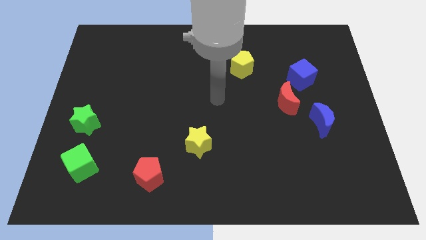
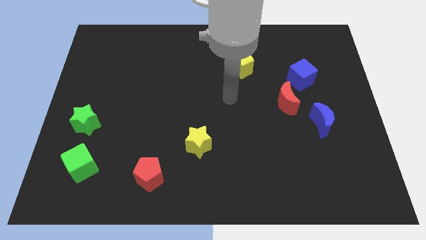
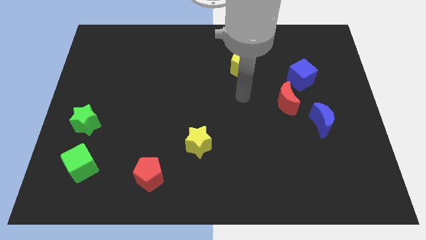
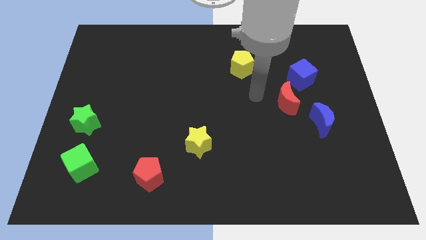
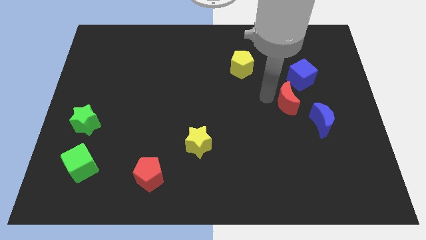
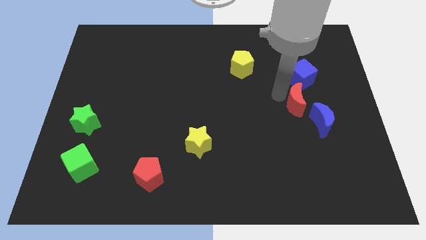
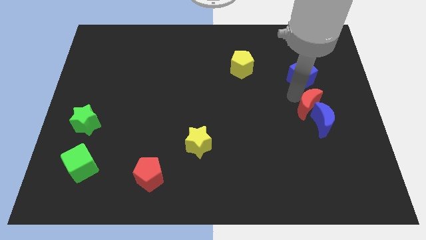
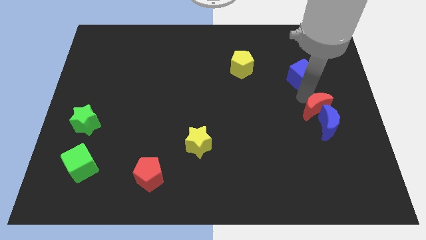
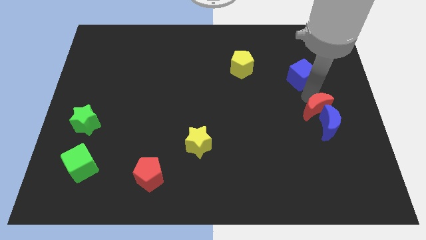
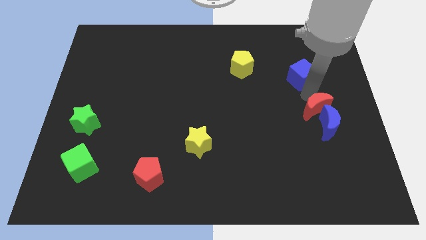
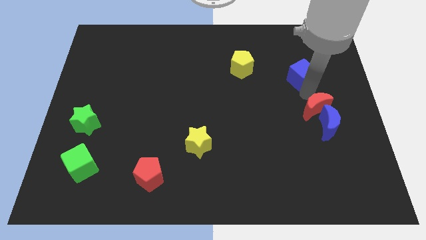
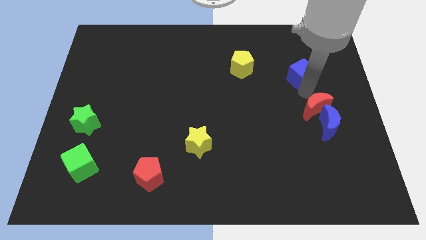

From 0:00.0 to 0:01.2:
move the blue cube away from the red moon

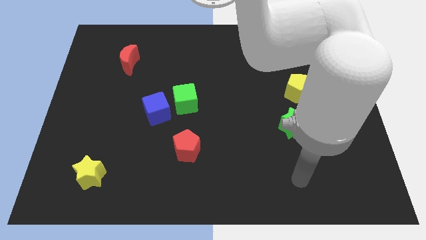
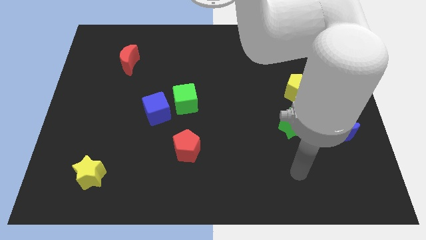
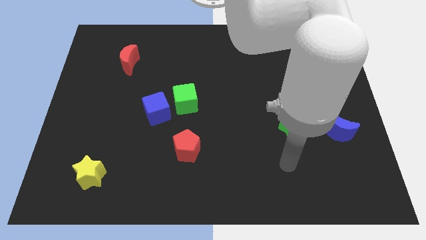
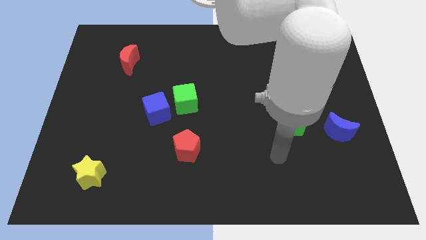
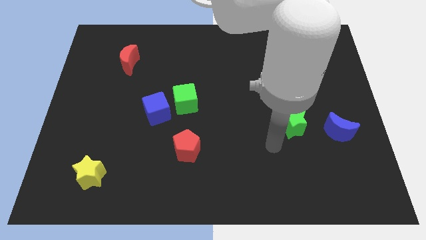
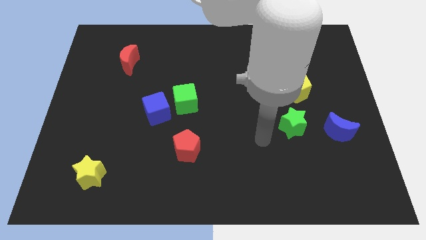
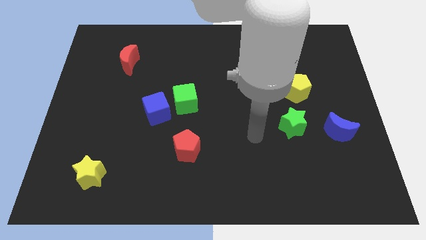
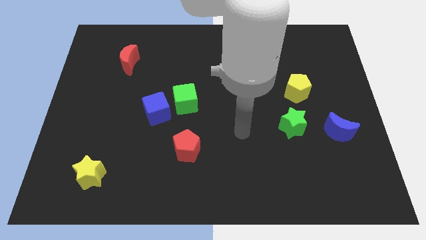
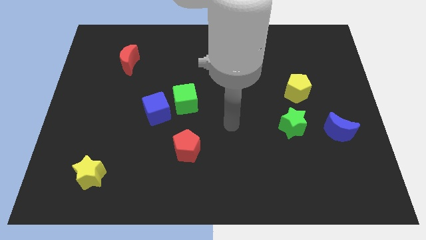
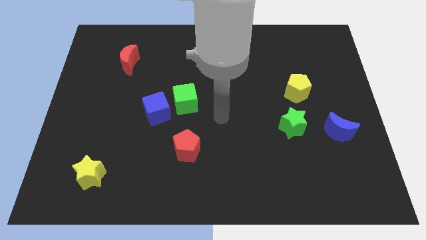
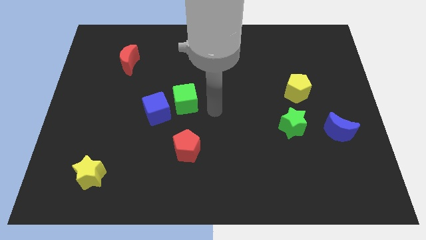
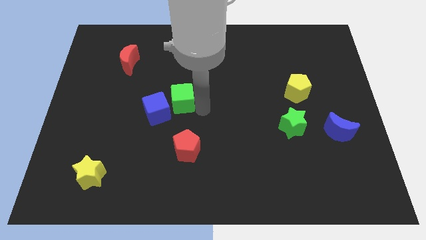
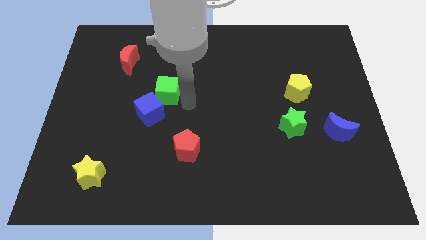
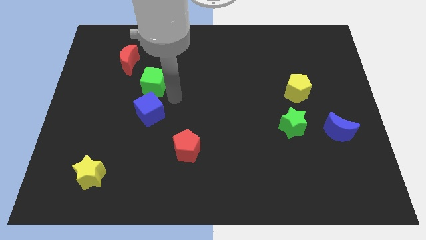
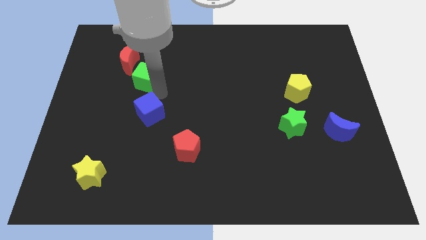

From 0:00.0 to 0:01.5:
pull the blue cube apart from the green cube

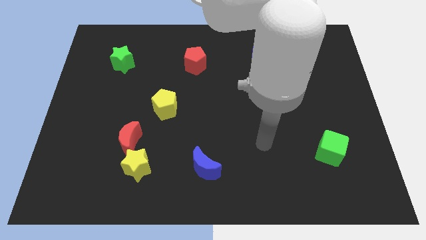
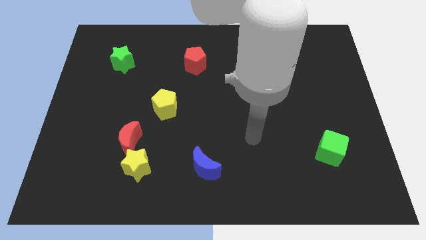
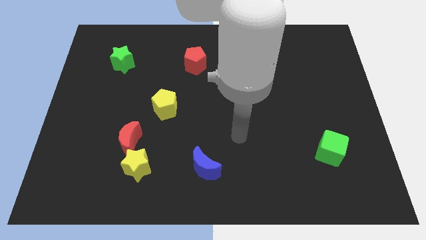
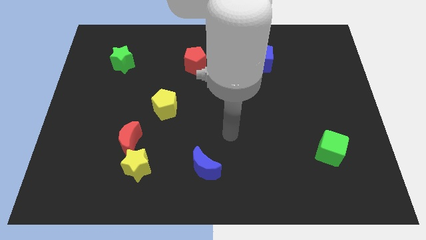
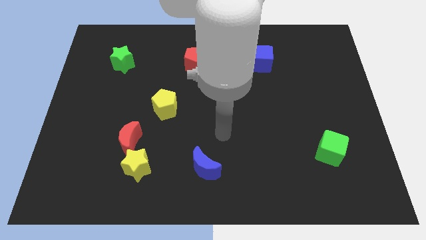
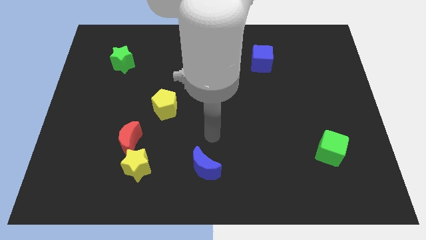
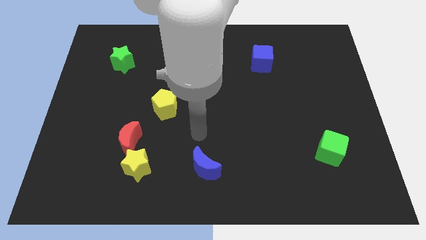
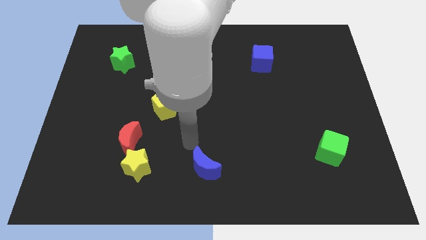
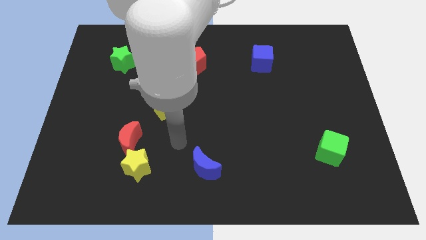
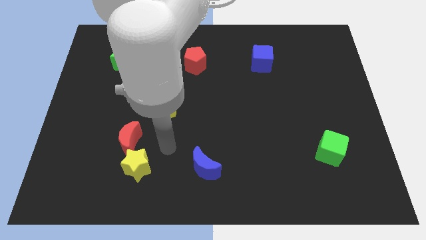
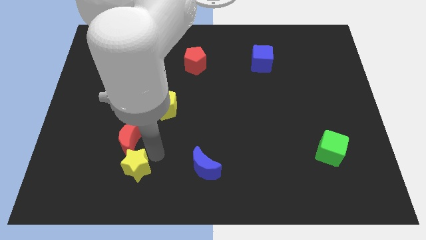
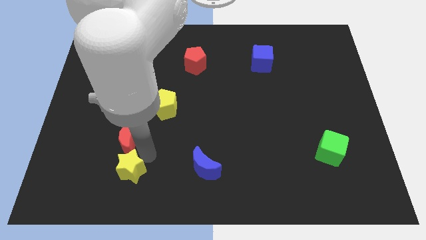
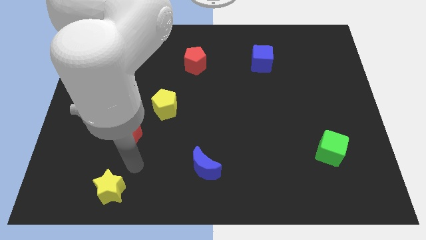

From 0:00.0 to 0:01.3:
separate the red moon from the yellow star

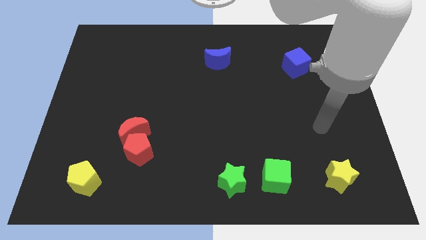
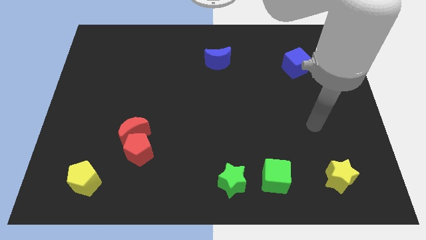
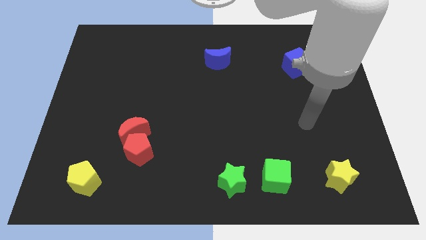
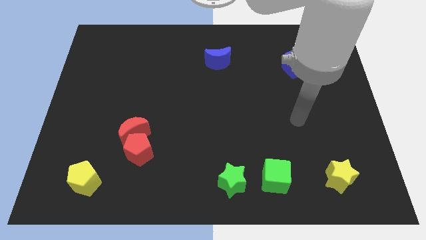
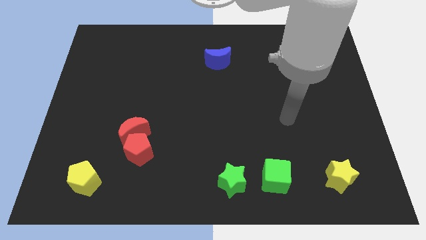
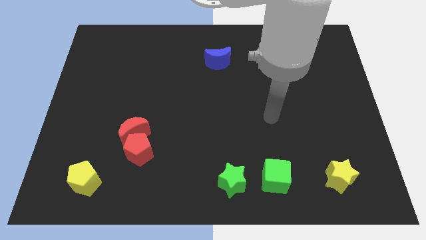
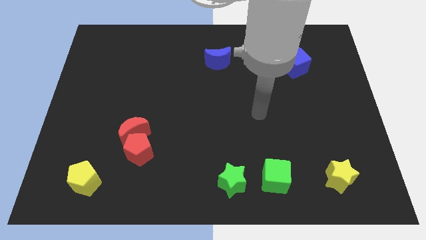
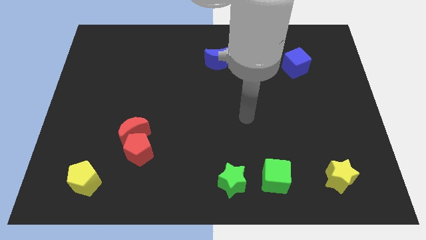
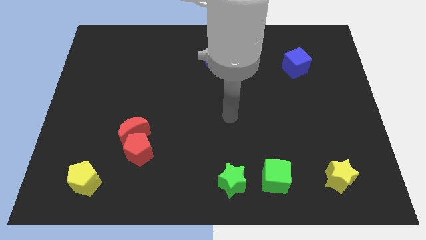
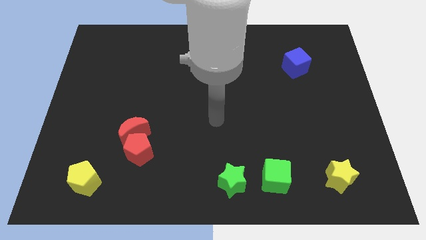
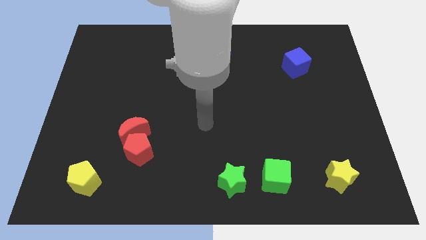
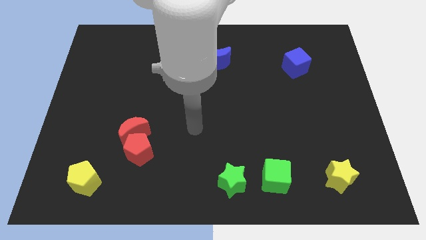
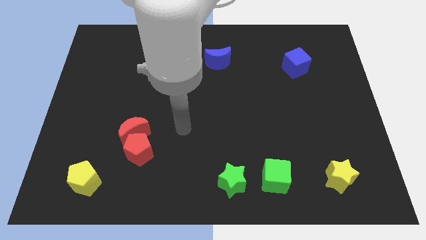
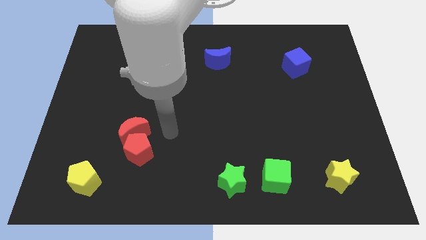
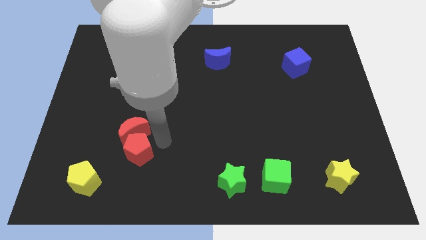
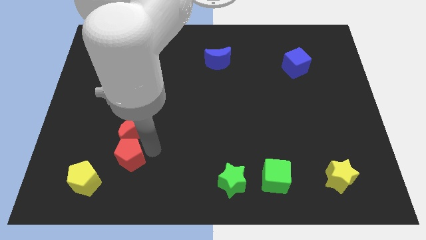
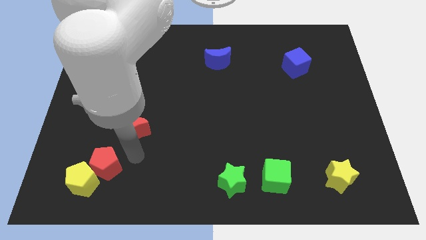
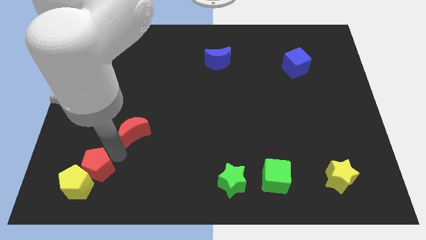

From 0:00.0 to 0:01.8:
pull the red moon apart from the red pentagon

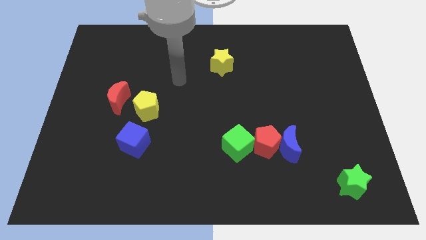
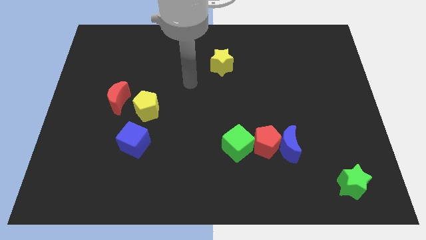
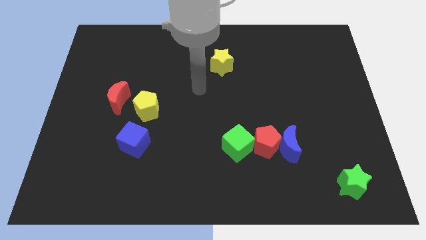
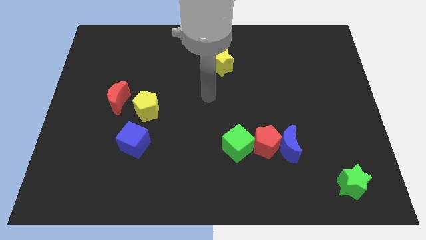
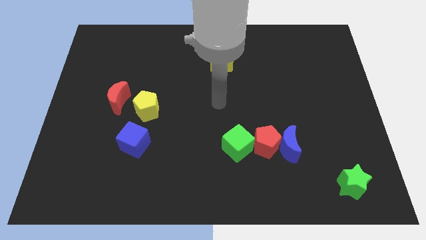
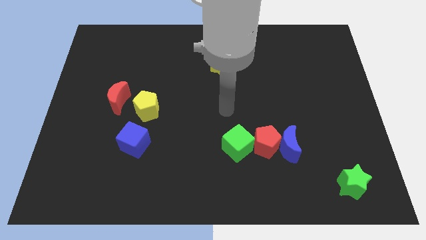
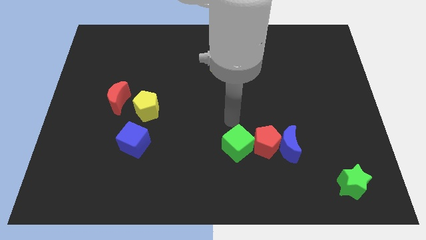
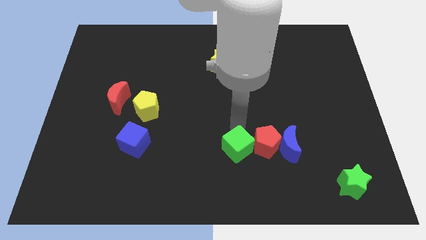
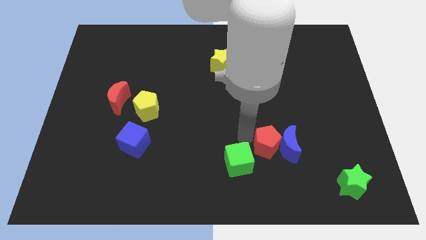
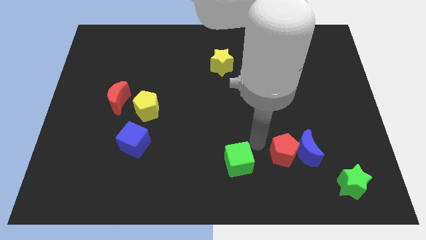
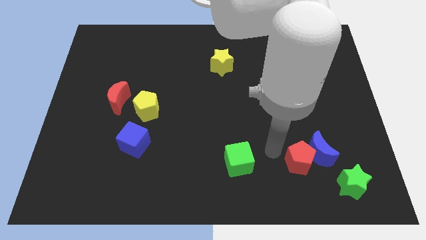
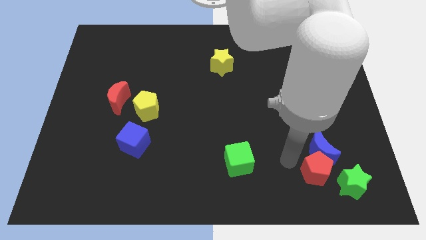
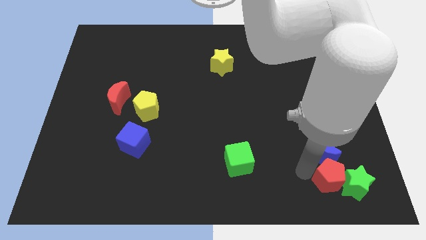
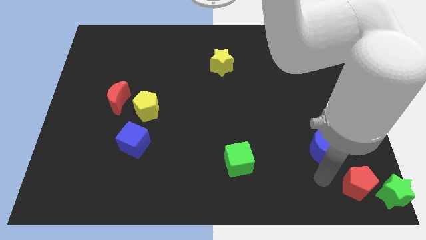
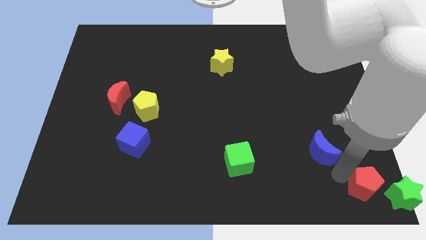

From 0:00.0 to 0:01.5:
pull the blue moon apart from the red pentagon

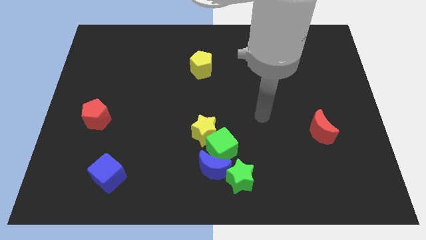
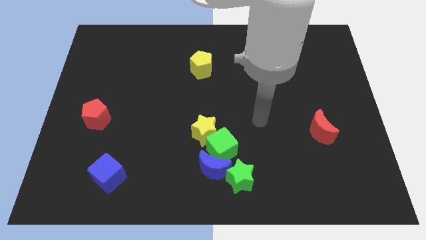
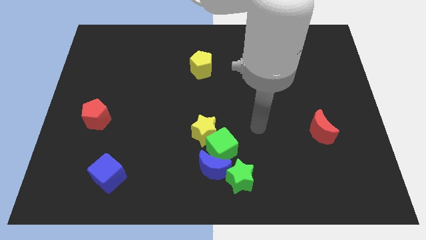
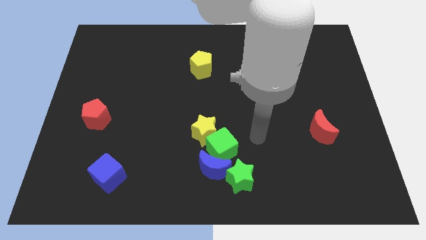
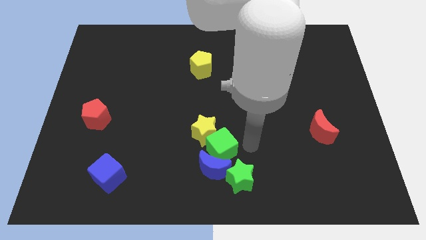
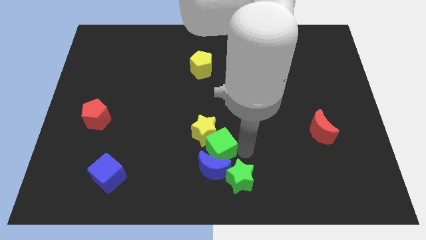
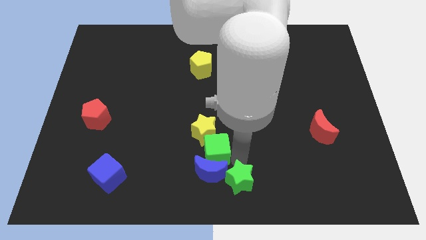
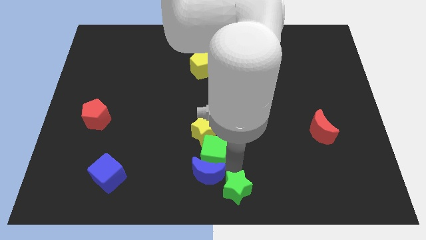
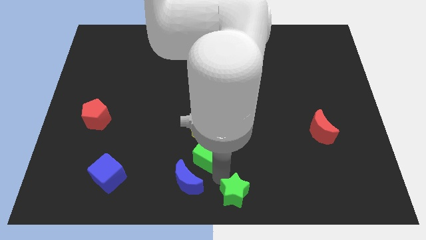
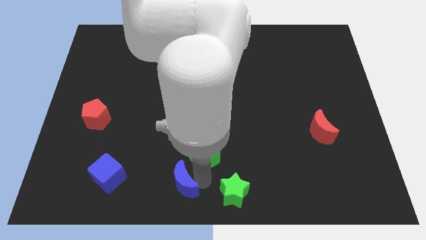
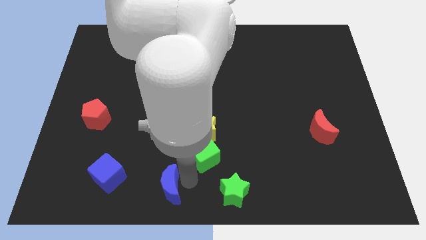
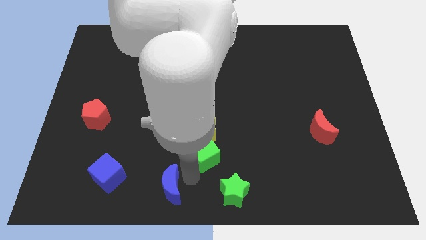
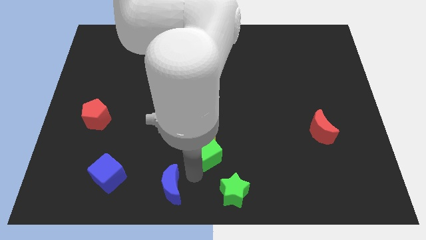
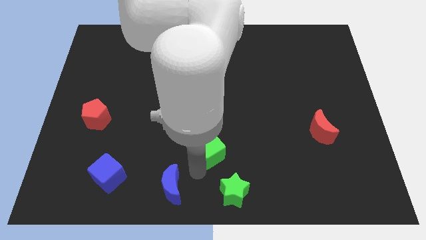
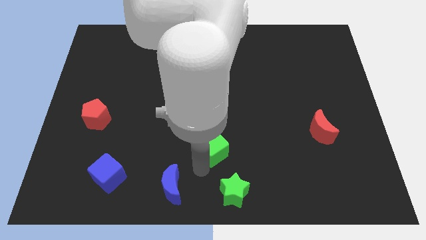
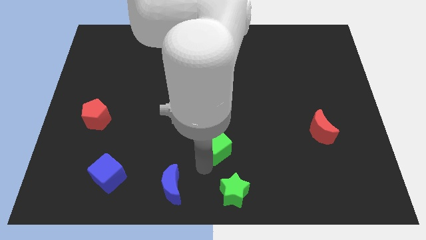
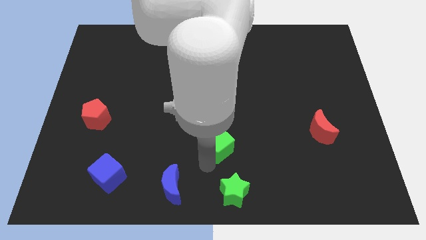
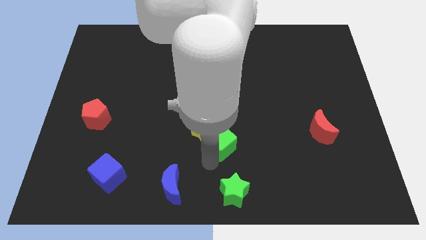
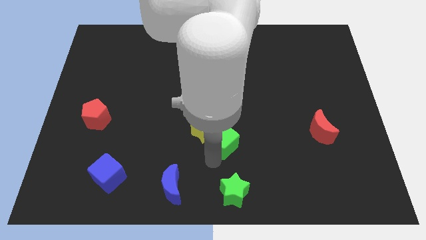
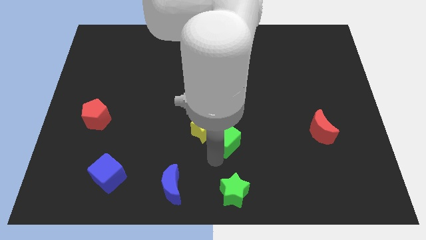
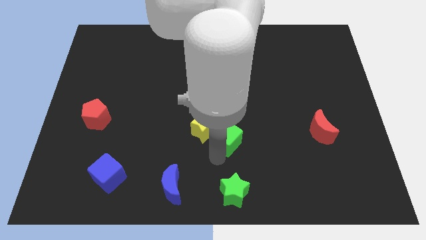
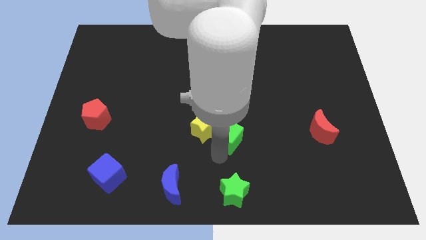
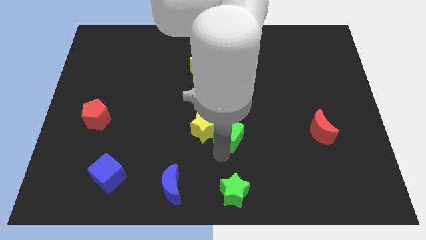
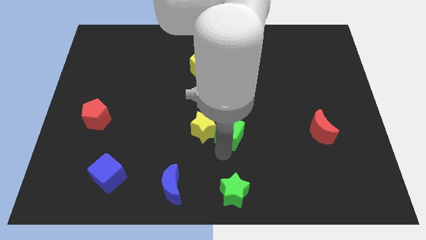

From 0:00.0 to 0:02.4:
separate the green cube from the yellow star, blue moon, and green star
